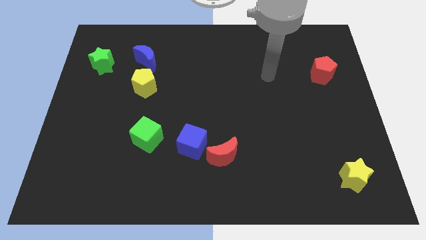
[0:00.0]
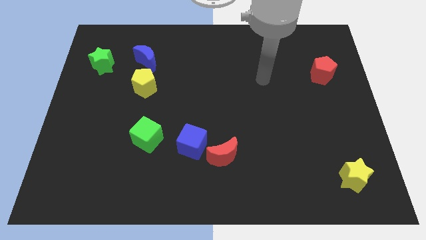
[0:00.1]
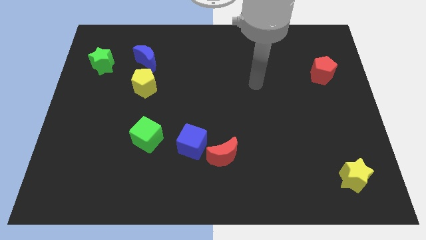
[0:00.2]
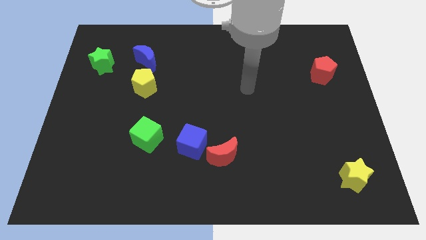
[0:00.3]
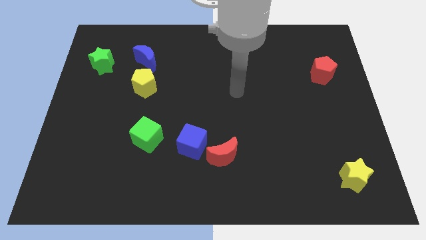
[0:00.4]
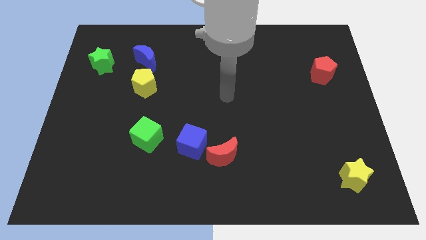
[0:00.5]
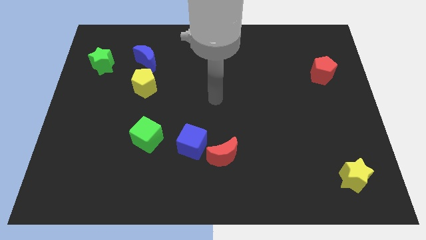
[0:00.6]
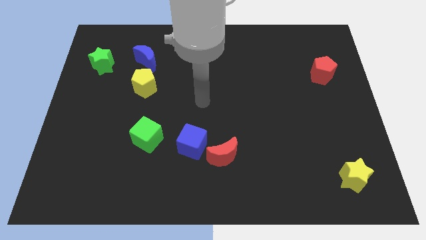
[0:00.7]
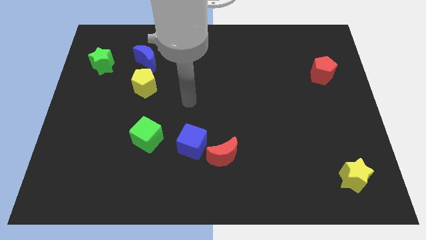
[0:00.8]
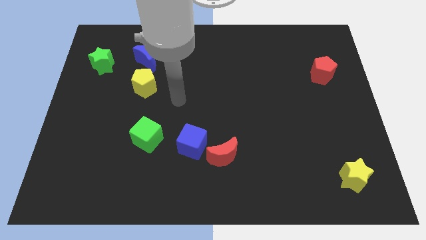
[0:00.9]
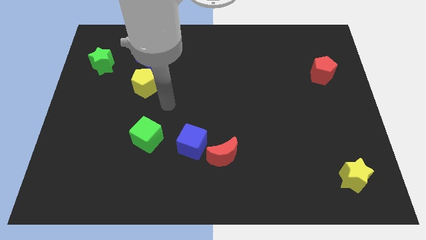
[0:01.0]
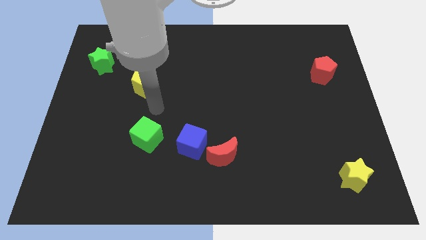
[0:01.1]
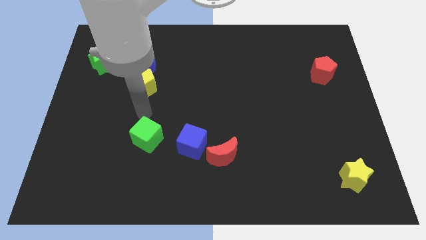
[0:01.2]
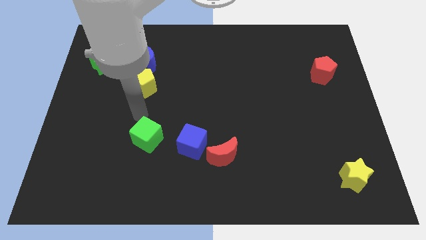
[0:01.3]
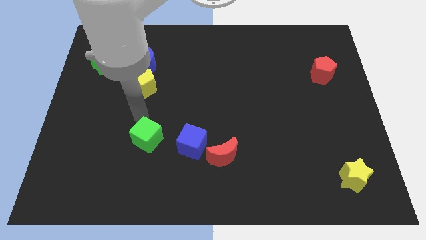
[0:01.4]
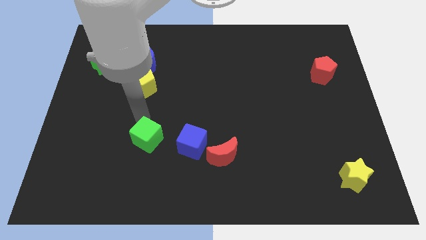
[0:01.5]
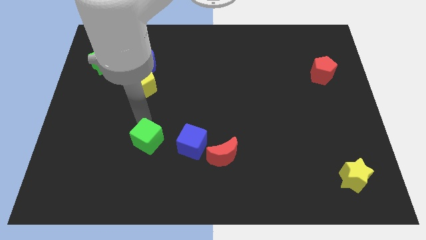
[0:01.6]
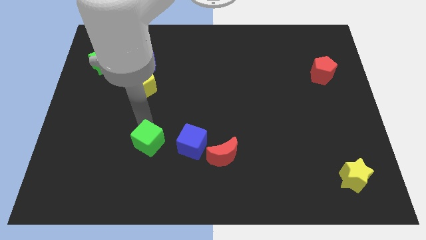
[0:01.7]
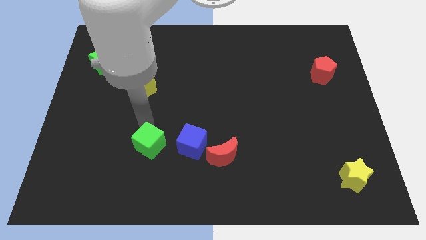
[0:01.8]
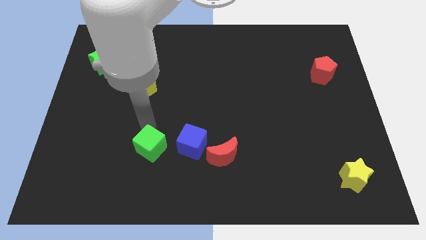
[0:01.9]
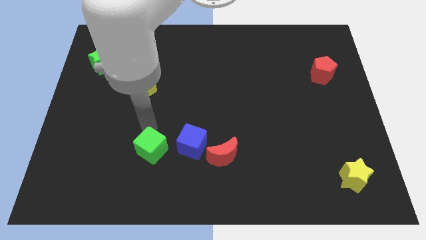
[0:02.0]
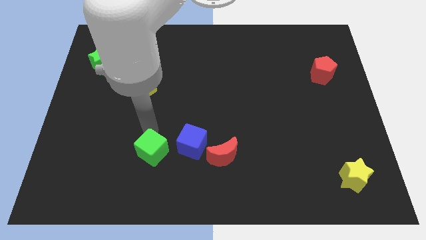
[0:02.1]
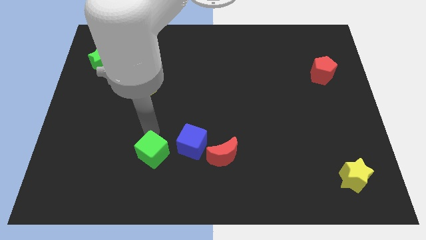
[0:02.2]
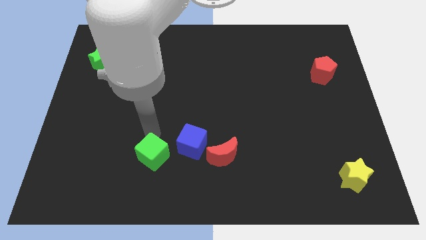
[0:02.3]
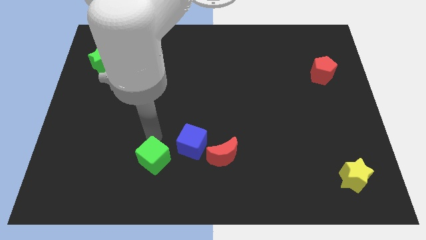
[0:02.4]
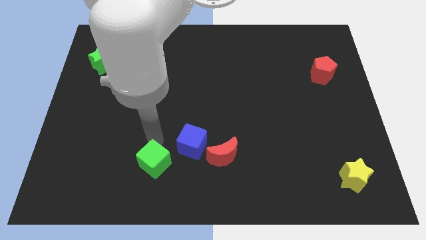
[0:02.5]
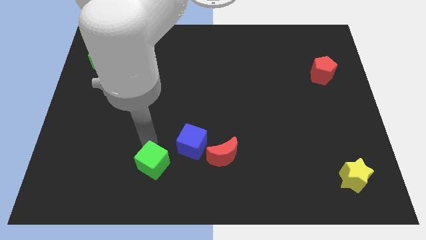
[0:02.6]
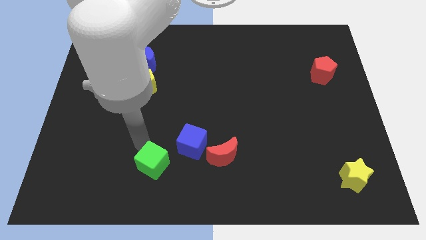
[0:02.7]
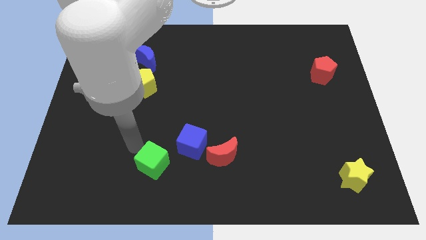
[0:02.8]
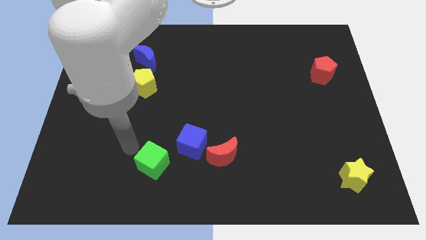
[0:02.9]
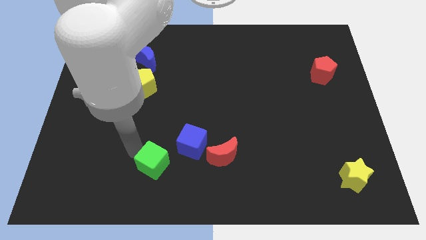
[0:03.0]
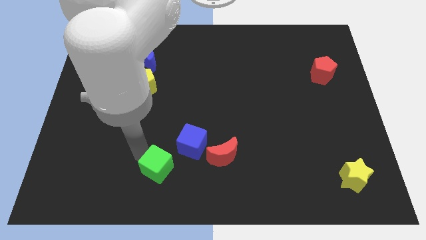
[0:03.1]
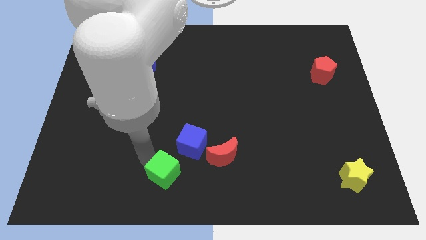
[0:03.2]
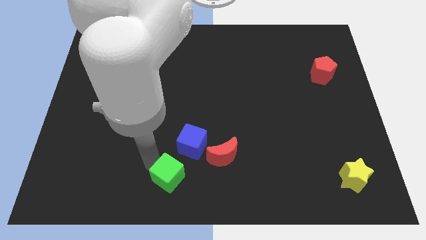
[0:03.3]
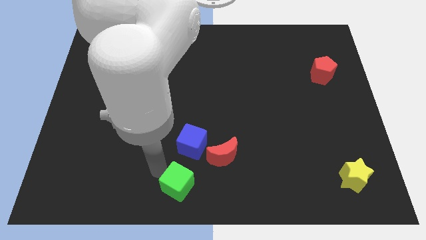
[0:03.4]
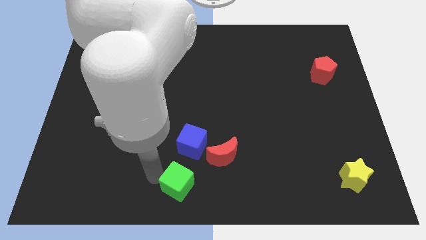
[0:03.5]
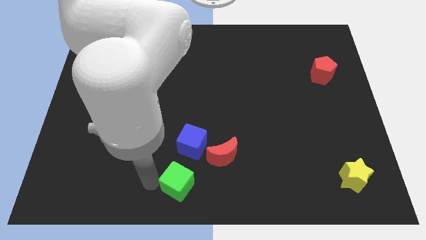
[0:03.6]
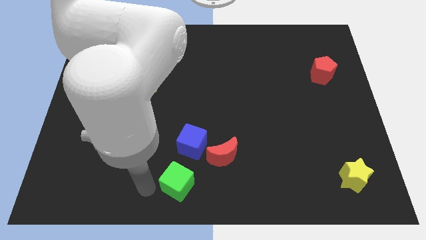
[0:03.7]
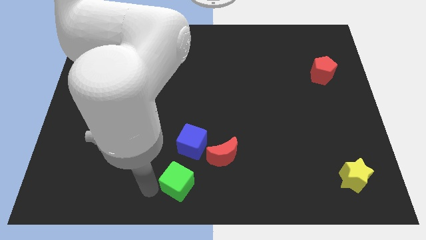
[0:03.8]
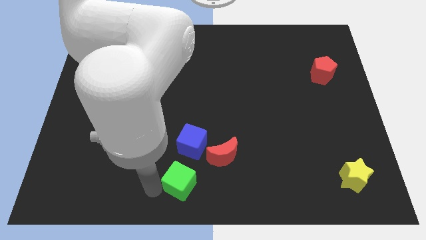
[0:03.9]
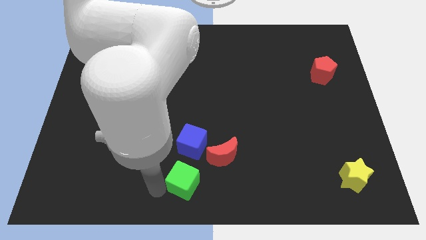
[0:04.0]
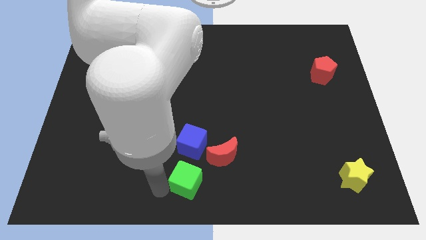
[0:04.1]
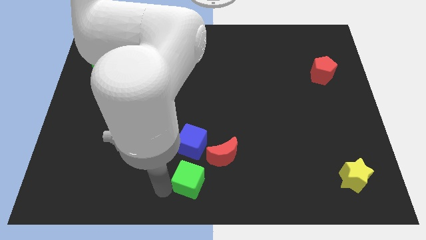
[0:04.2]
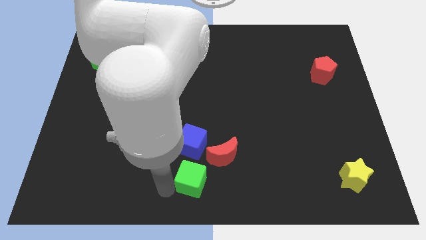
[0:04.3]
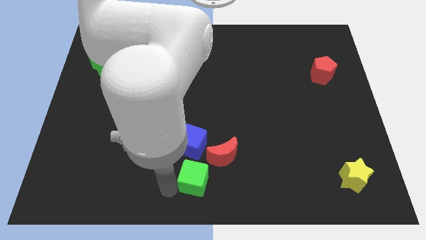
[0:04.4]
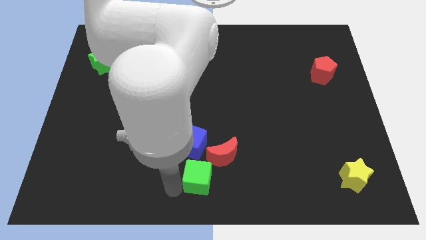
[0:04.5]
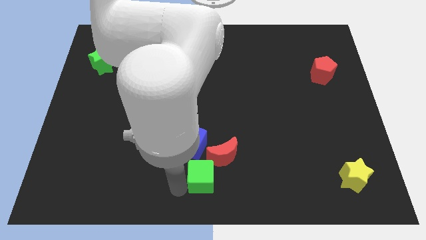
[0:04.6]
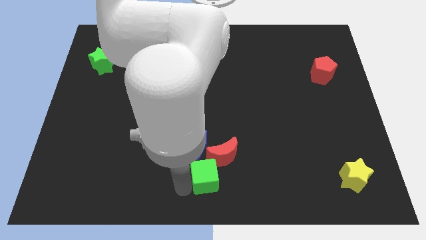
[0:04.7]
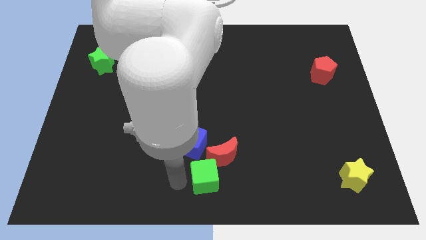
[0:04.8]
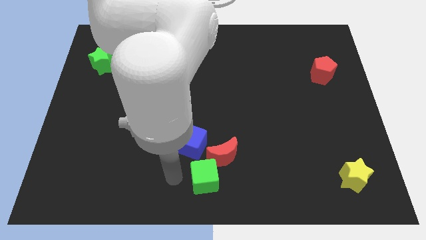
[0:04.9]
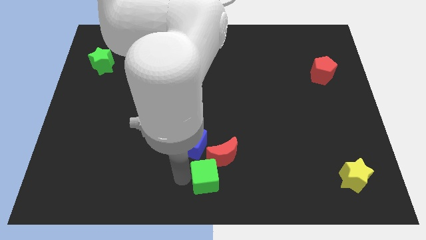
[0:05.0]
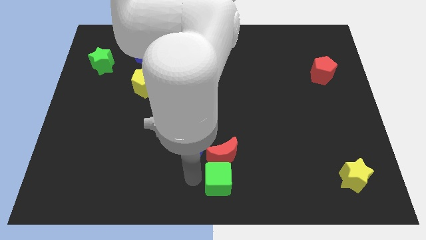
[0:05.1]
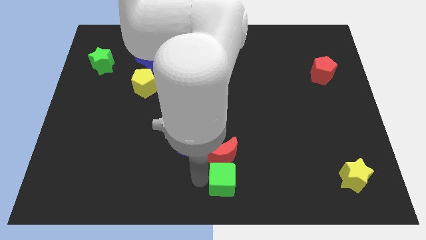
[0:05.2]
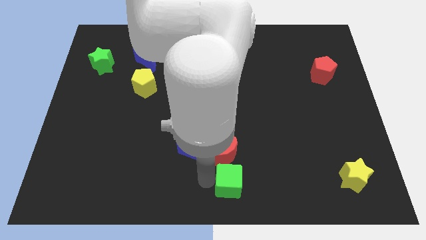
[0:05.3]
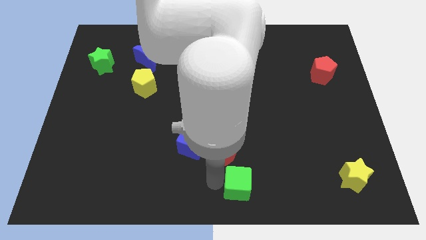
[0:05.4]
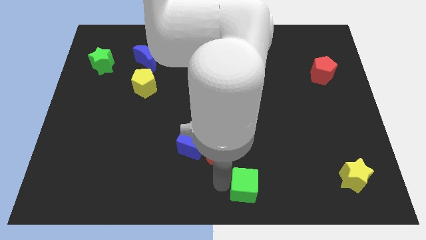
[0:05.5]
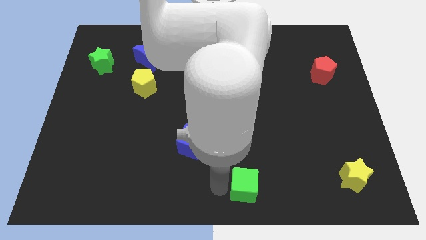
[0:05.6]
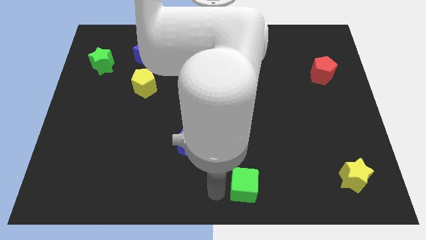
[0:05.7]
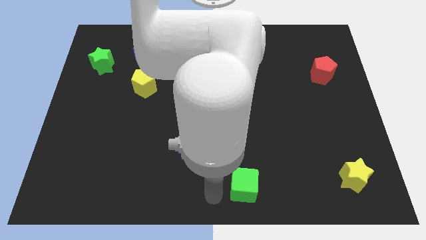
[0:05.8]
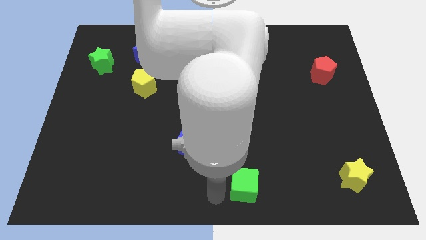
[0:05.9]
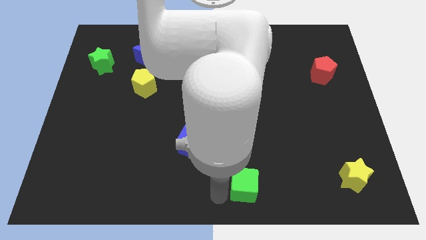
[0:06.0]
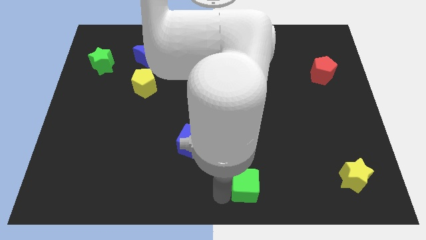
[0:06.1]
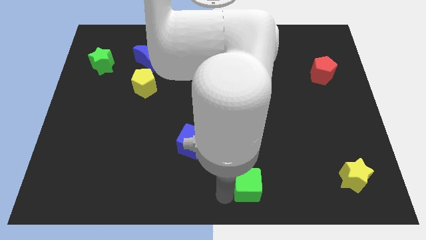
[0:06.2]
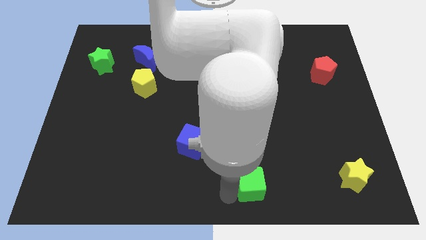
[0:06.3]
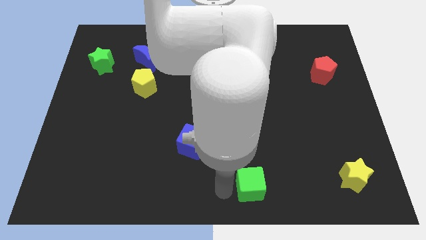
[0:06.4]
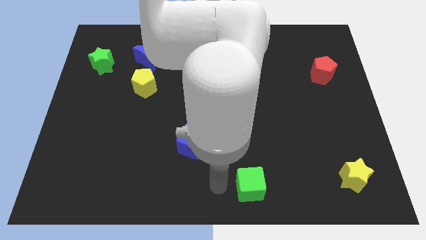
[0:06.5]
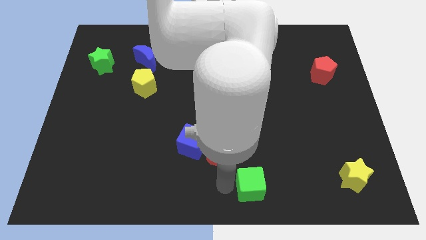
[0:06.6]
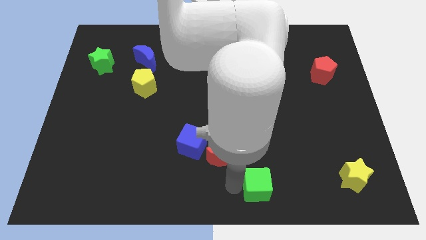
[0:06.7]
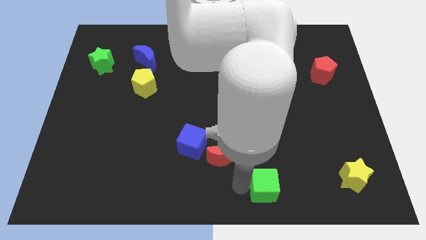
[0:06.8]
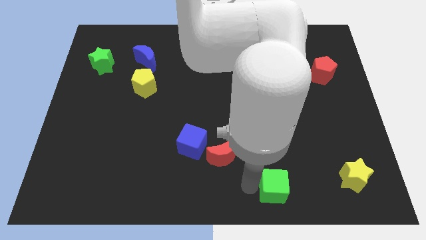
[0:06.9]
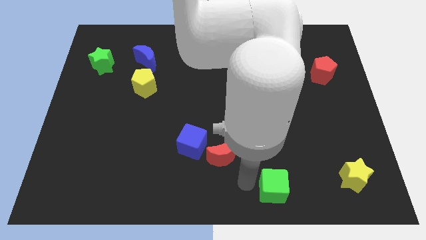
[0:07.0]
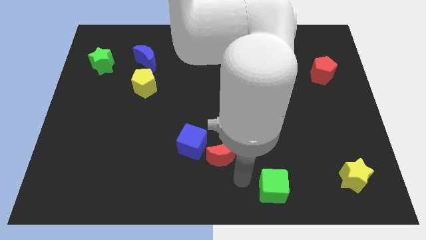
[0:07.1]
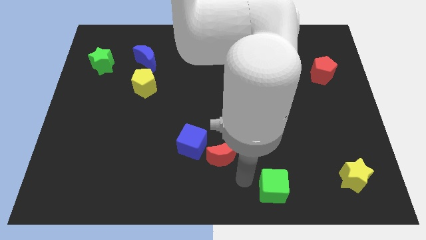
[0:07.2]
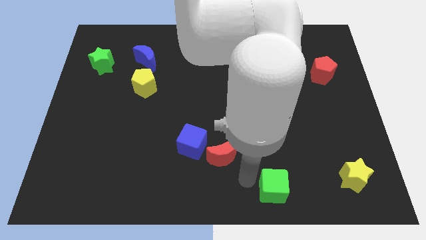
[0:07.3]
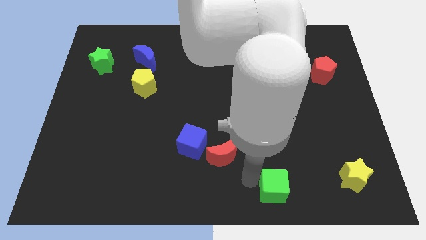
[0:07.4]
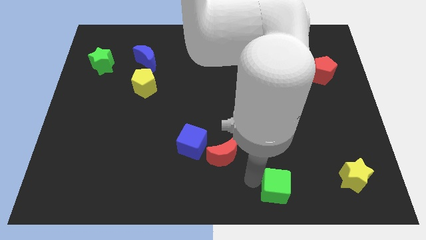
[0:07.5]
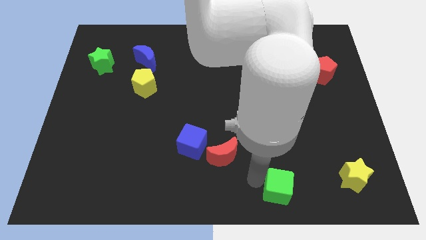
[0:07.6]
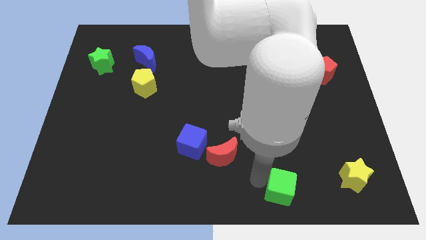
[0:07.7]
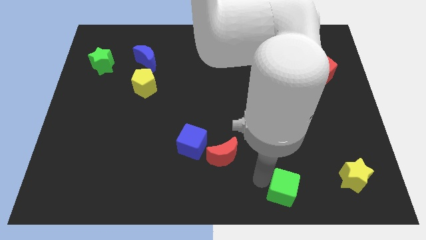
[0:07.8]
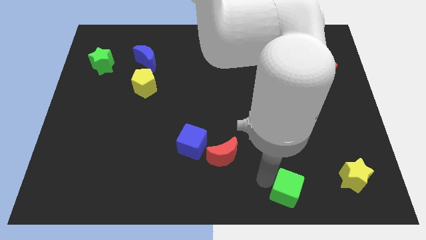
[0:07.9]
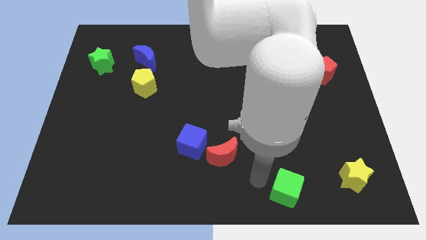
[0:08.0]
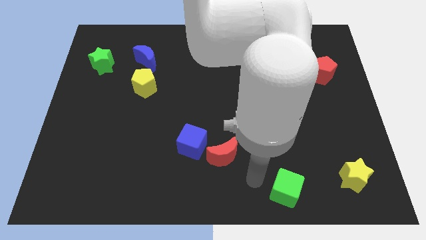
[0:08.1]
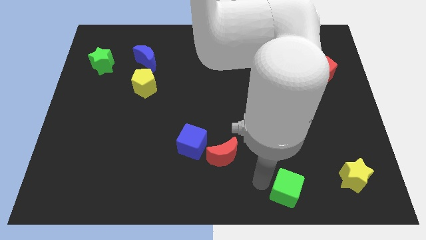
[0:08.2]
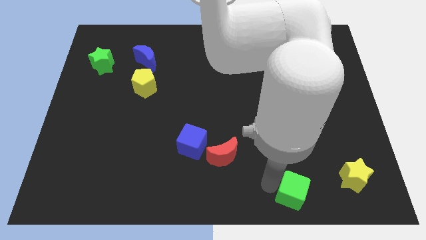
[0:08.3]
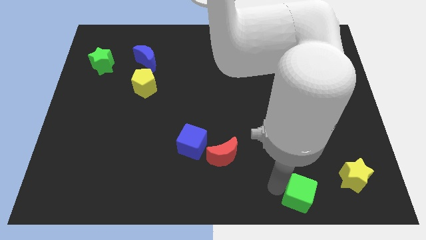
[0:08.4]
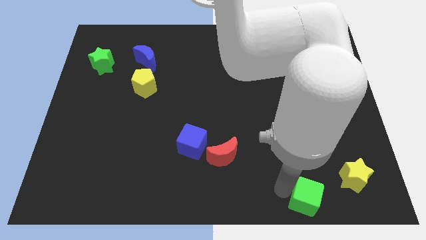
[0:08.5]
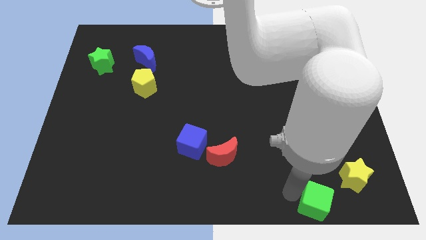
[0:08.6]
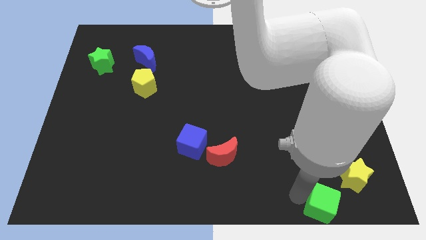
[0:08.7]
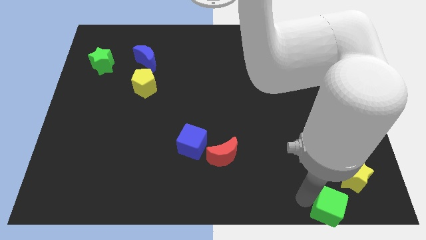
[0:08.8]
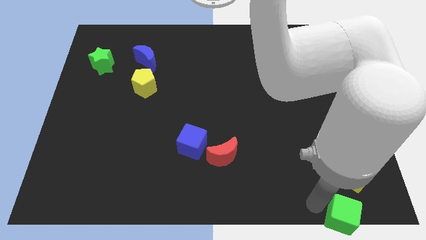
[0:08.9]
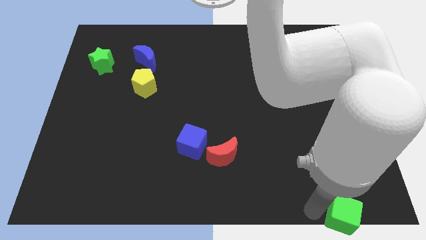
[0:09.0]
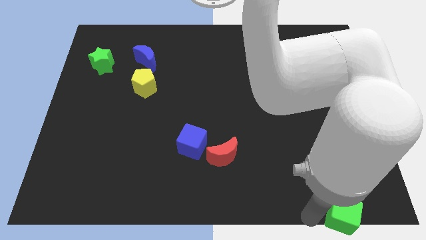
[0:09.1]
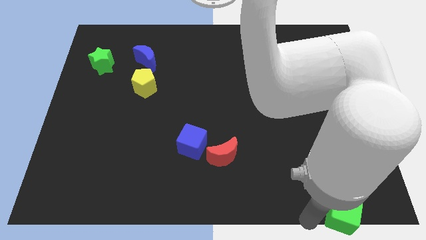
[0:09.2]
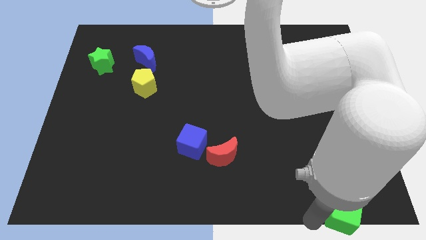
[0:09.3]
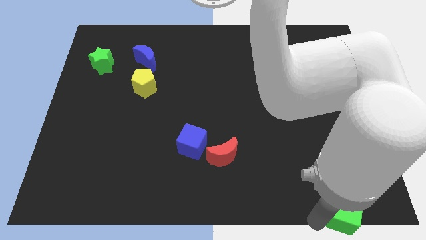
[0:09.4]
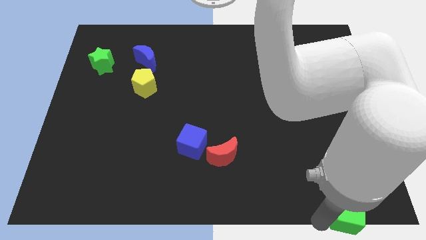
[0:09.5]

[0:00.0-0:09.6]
put the green cube to the lower right corner
